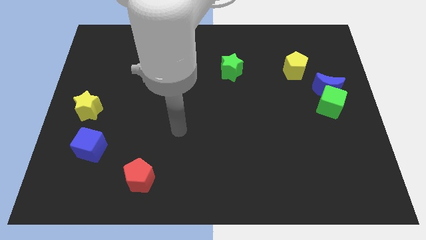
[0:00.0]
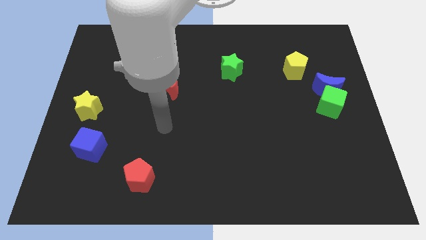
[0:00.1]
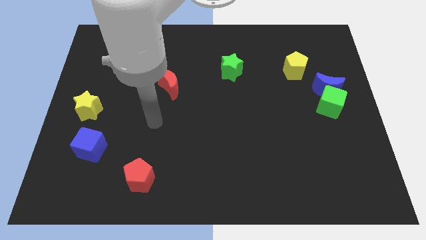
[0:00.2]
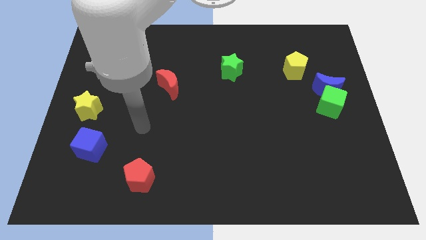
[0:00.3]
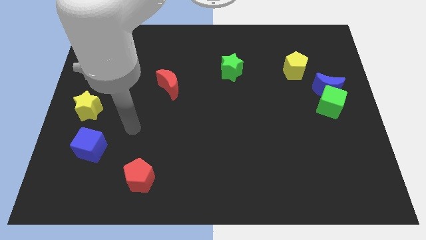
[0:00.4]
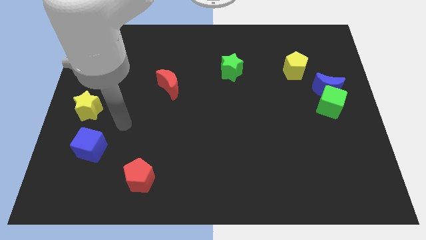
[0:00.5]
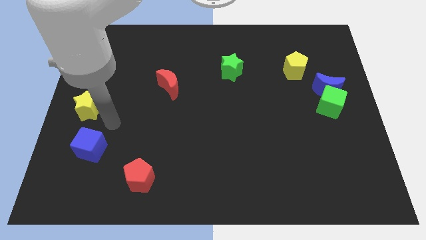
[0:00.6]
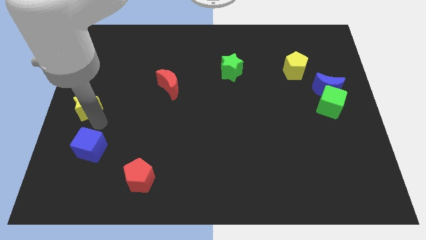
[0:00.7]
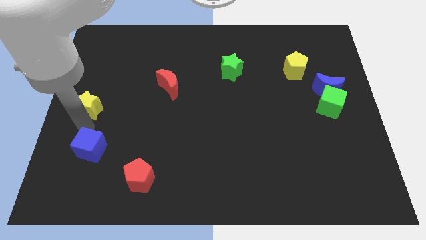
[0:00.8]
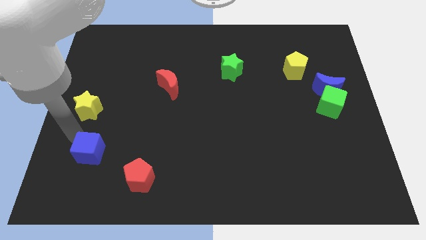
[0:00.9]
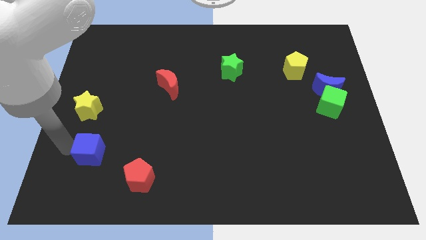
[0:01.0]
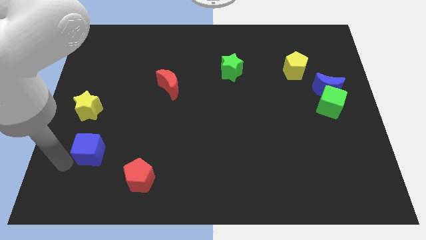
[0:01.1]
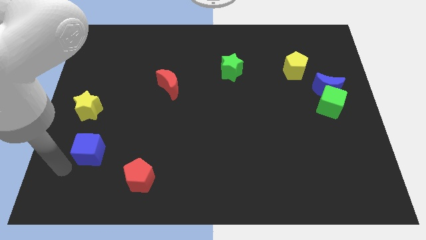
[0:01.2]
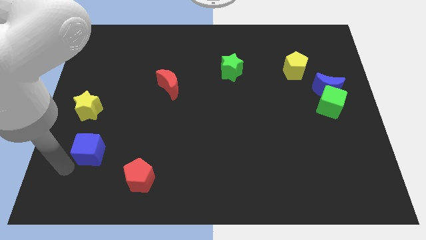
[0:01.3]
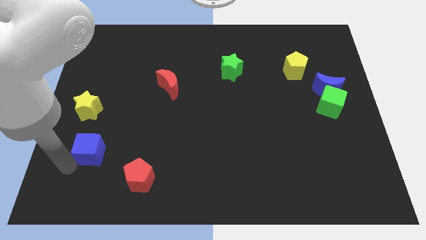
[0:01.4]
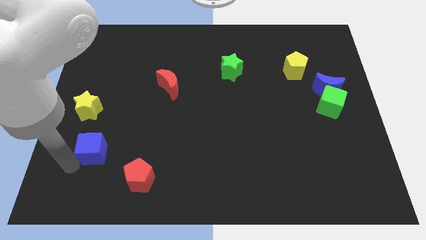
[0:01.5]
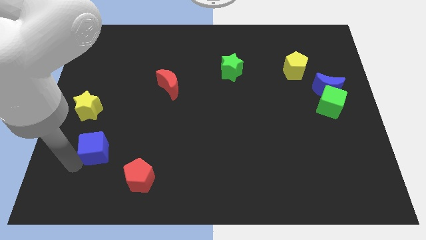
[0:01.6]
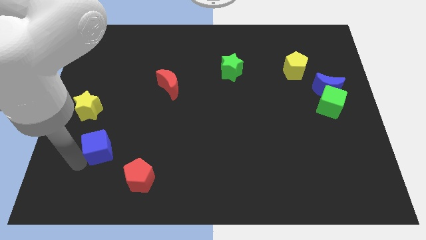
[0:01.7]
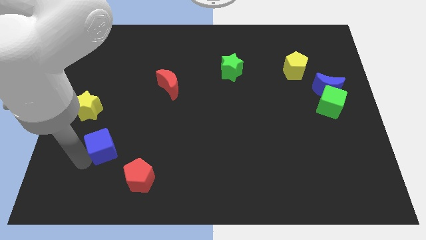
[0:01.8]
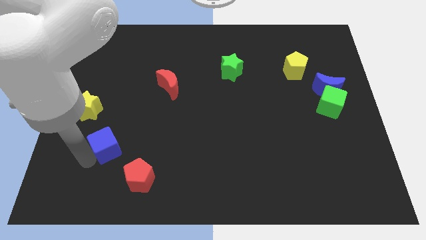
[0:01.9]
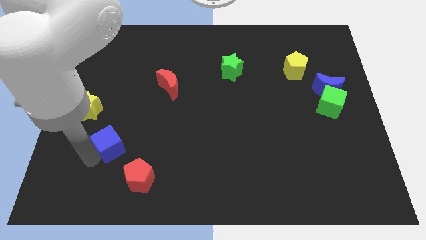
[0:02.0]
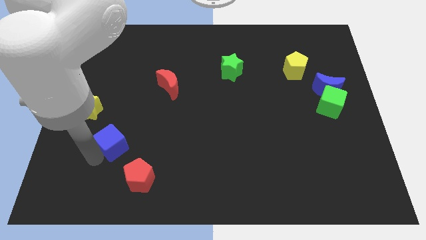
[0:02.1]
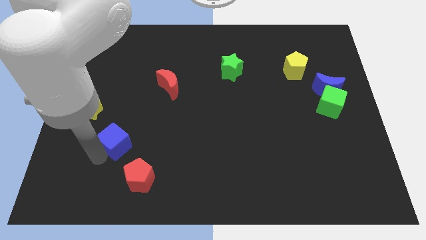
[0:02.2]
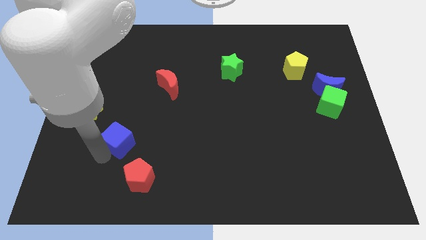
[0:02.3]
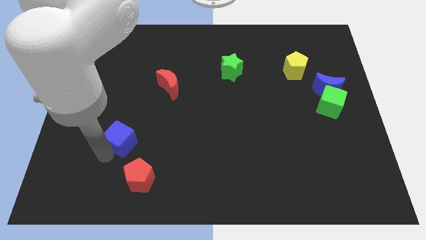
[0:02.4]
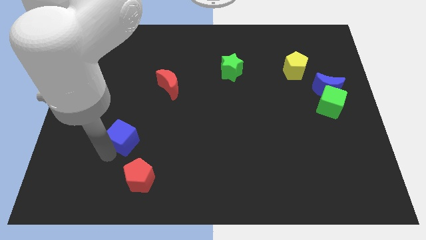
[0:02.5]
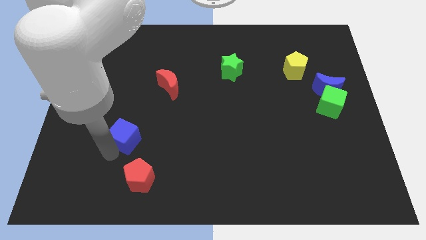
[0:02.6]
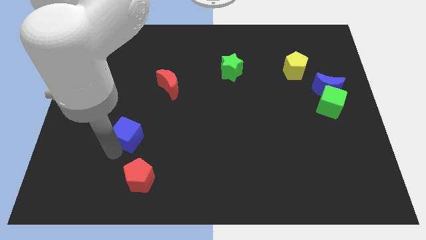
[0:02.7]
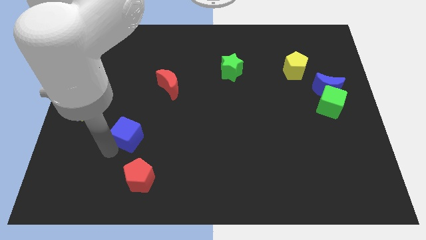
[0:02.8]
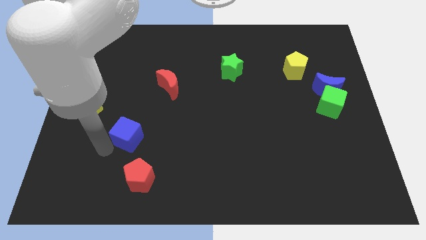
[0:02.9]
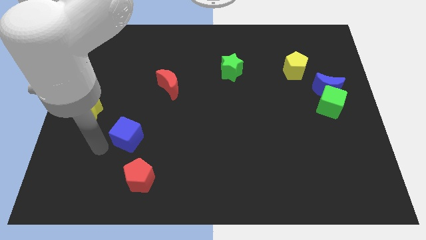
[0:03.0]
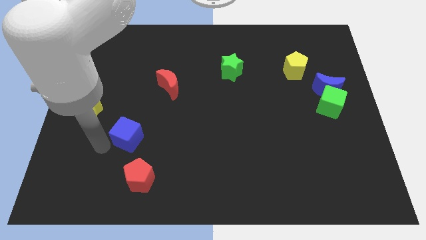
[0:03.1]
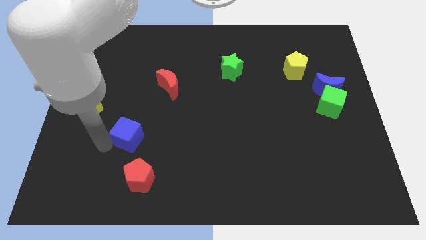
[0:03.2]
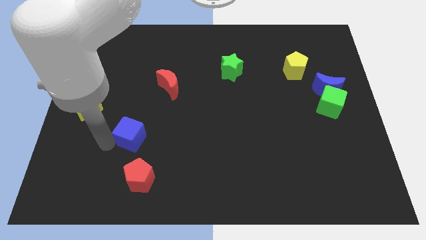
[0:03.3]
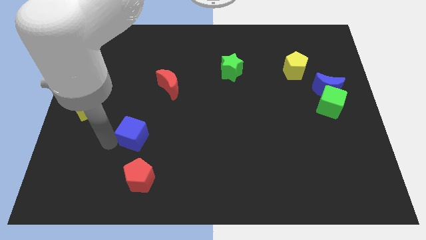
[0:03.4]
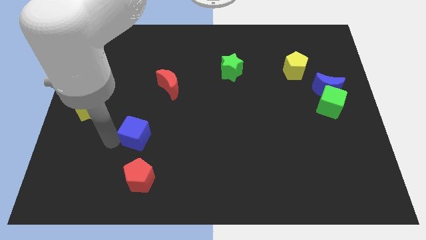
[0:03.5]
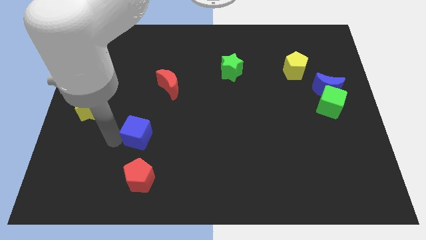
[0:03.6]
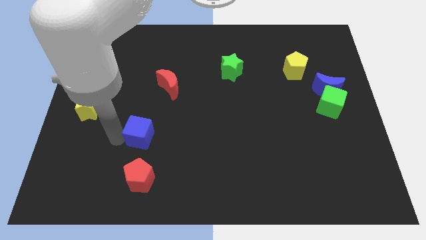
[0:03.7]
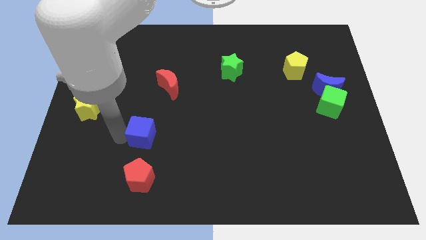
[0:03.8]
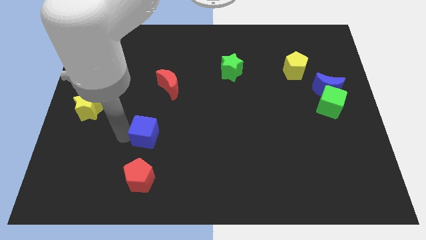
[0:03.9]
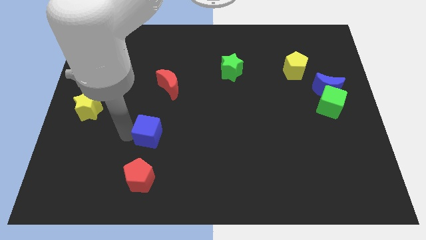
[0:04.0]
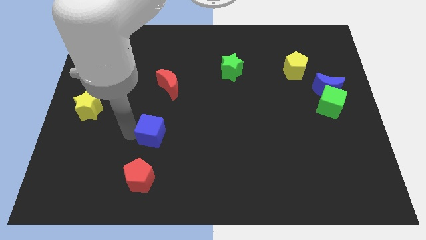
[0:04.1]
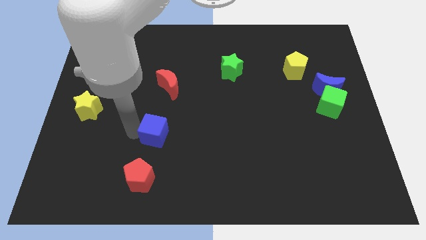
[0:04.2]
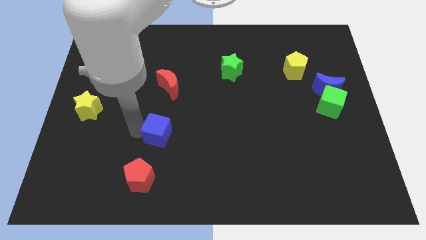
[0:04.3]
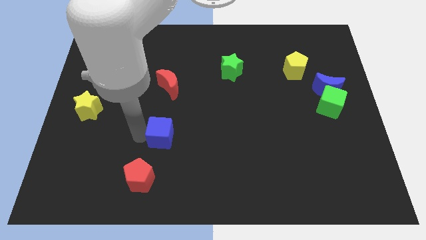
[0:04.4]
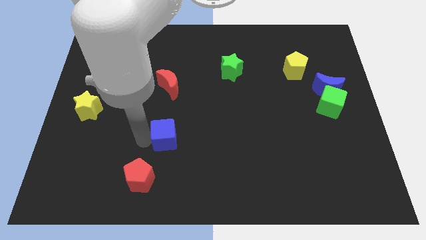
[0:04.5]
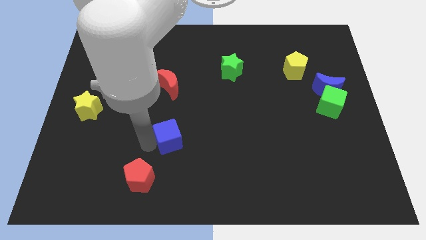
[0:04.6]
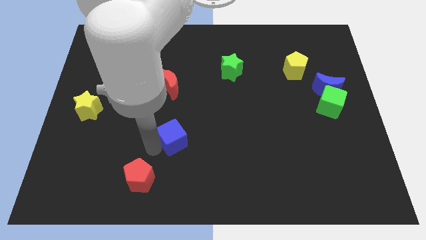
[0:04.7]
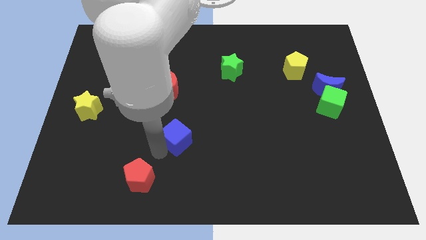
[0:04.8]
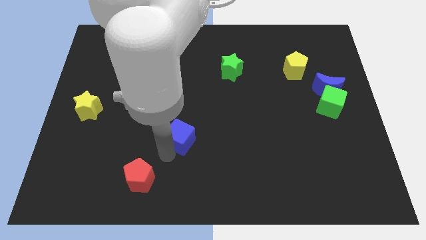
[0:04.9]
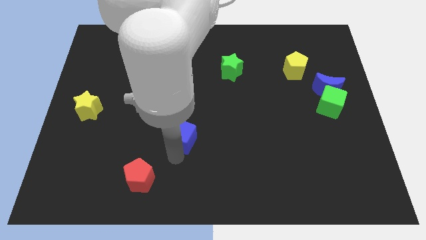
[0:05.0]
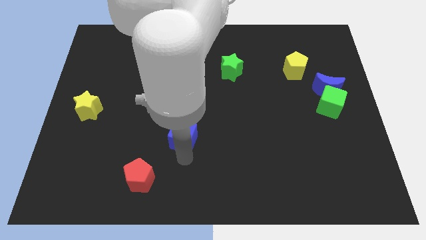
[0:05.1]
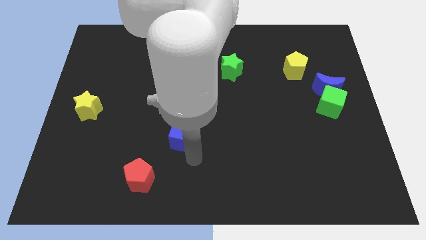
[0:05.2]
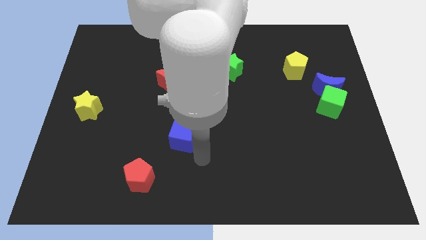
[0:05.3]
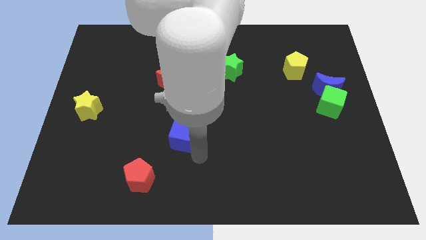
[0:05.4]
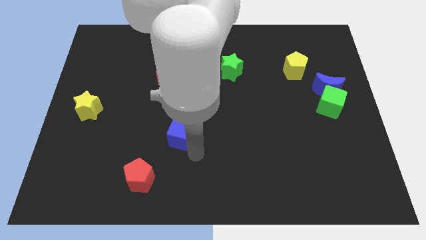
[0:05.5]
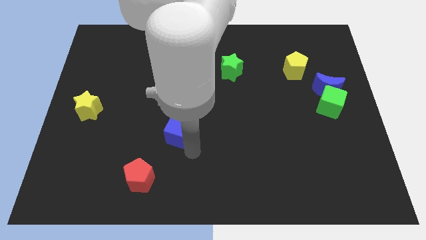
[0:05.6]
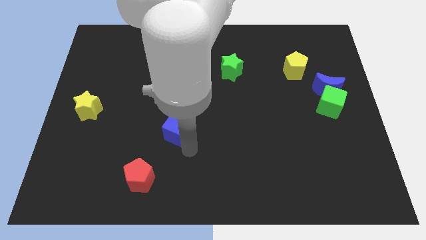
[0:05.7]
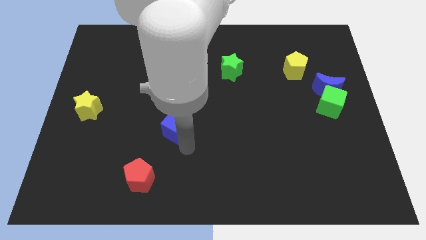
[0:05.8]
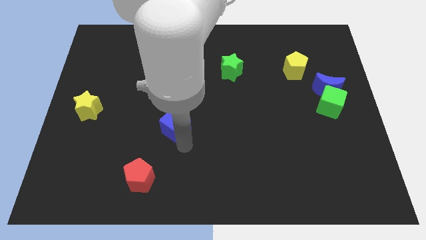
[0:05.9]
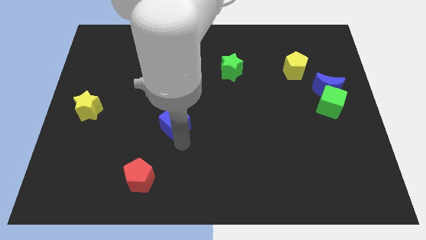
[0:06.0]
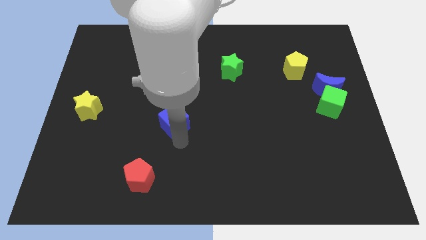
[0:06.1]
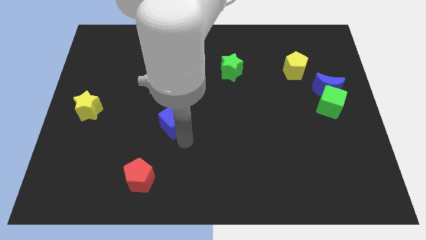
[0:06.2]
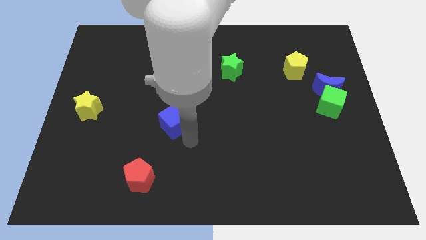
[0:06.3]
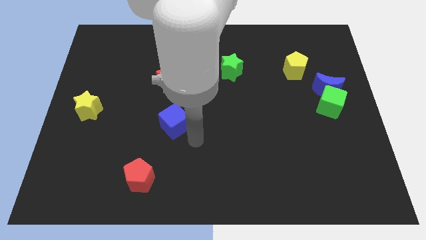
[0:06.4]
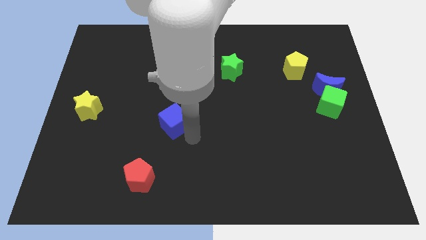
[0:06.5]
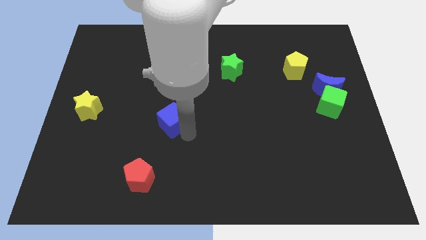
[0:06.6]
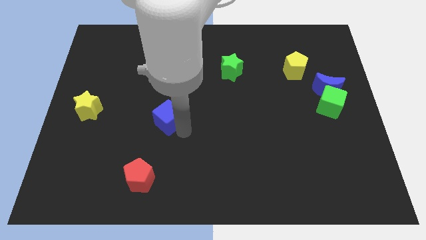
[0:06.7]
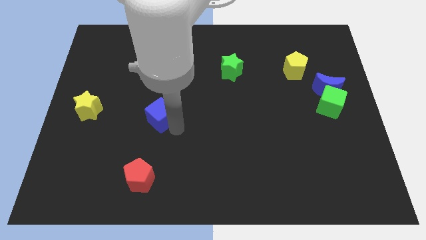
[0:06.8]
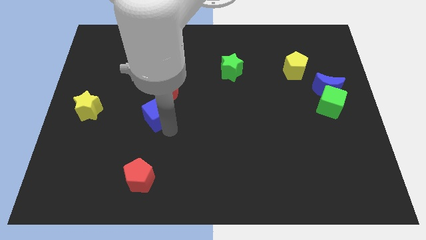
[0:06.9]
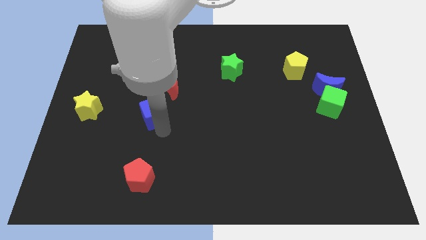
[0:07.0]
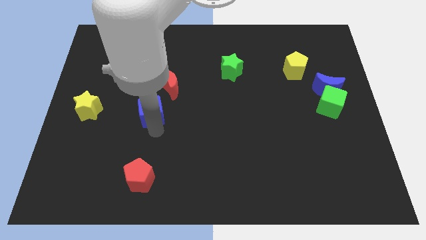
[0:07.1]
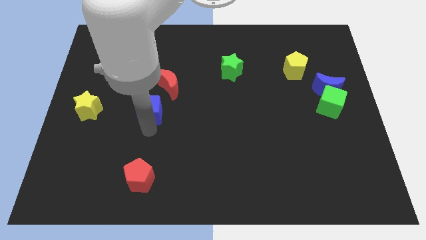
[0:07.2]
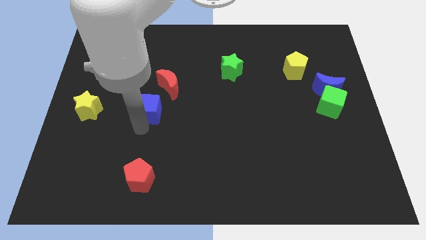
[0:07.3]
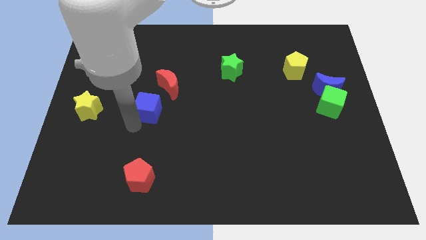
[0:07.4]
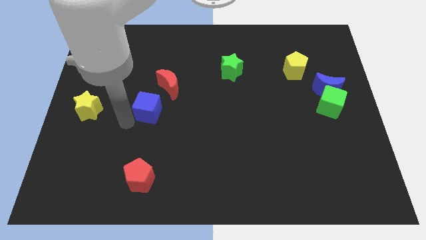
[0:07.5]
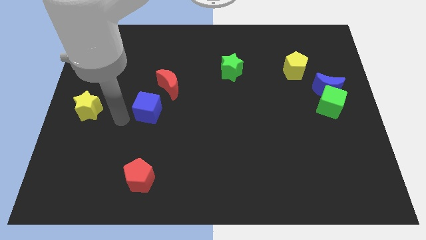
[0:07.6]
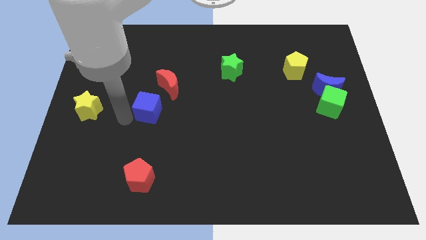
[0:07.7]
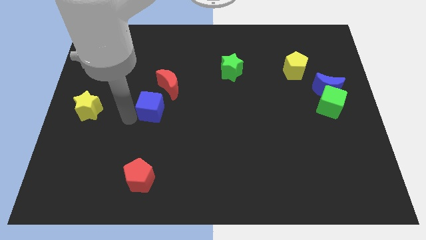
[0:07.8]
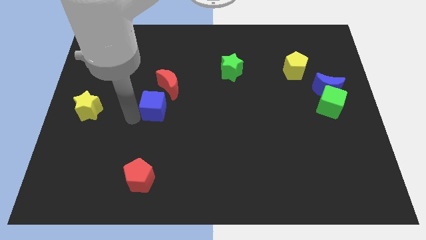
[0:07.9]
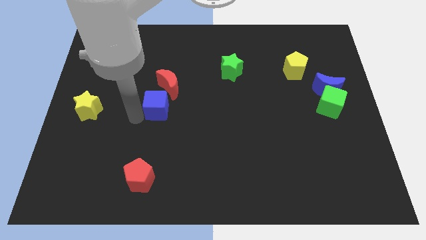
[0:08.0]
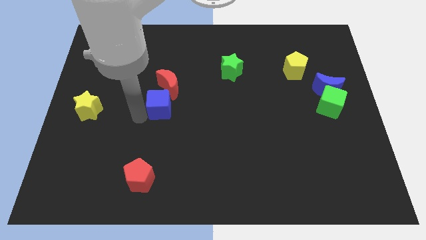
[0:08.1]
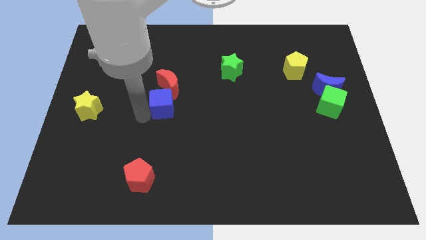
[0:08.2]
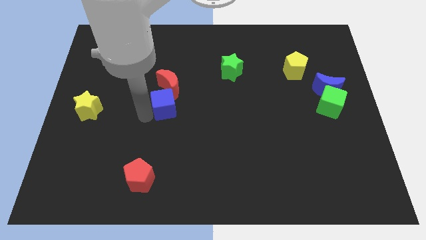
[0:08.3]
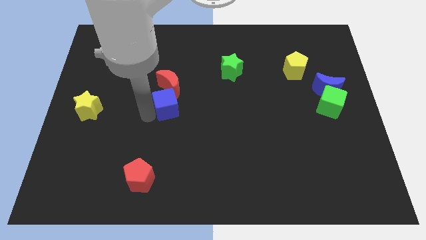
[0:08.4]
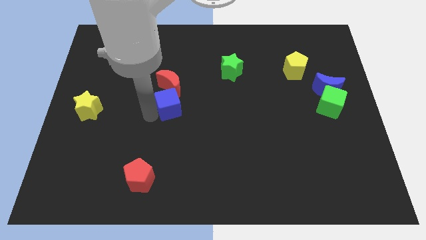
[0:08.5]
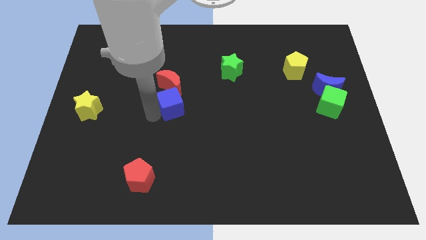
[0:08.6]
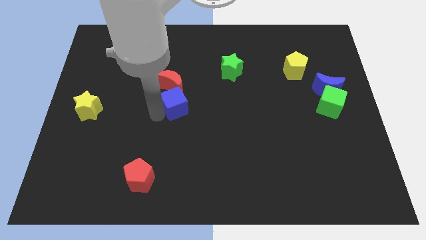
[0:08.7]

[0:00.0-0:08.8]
slide the blue cube diagonally up and to the right
